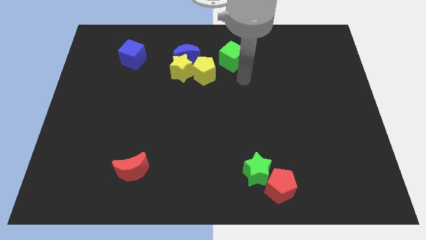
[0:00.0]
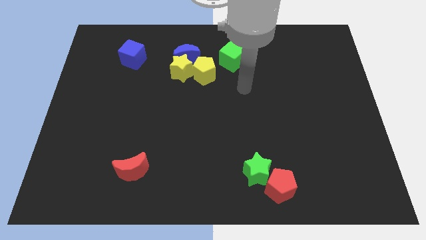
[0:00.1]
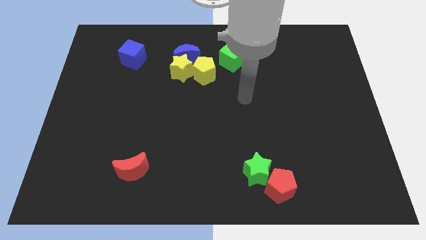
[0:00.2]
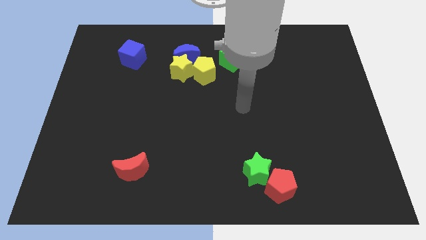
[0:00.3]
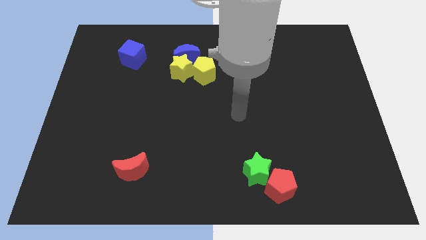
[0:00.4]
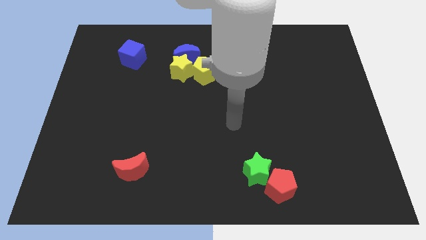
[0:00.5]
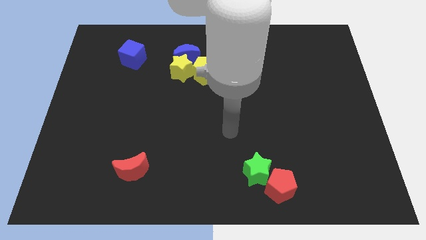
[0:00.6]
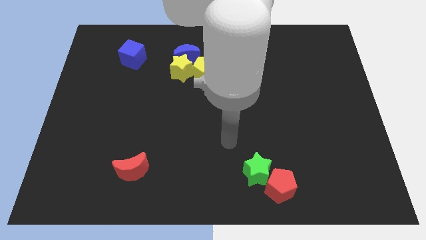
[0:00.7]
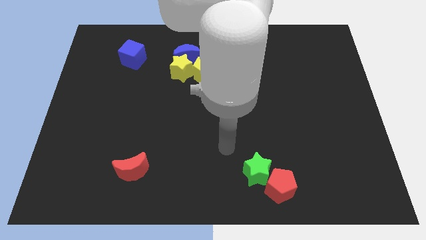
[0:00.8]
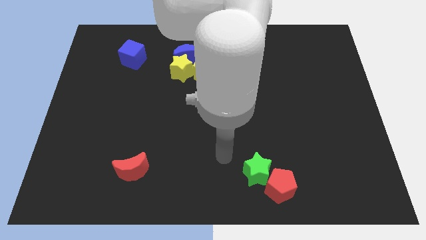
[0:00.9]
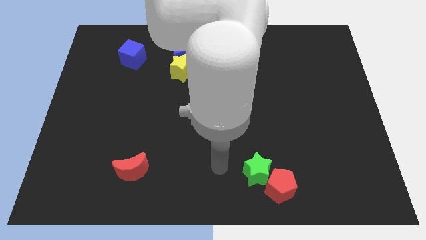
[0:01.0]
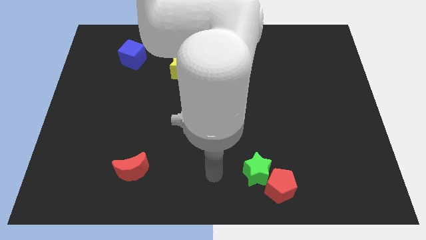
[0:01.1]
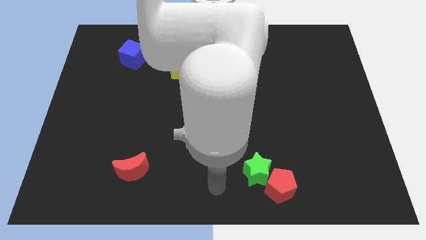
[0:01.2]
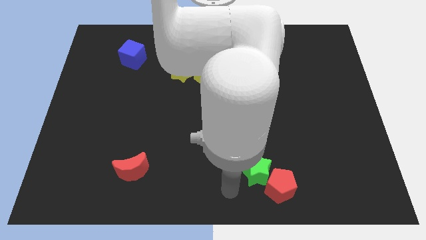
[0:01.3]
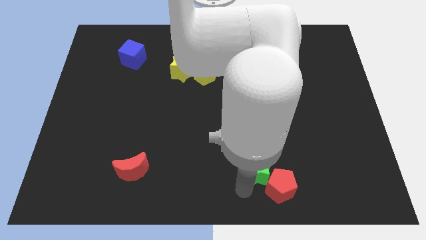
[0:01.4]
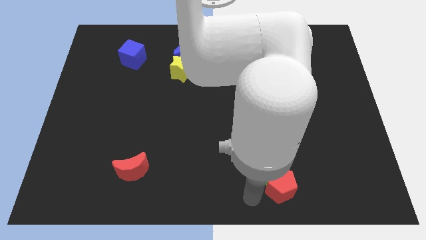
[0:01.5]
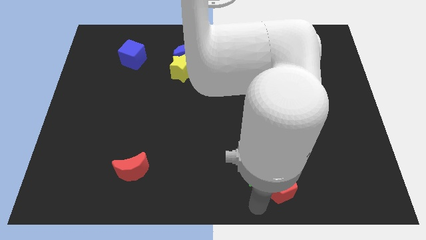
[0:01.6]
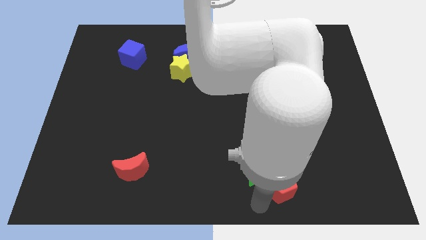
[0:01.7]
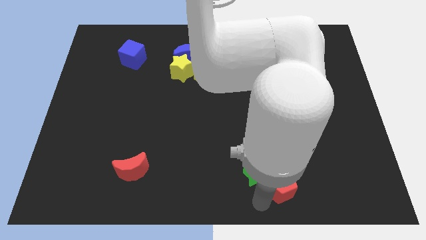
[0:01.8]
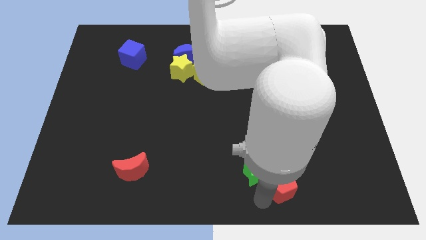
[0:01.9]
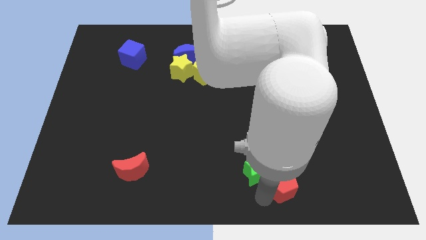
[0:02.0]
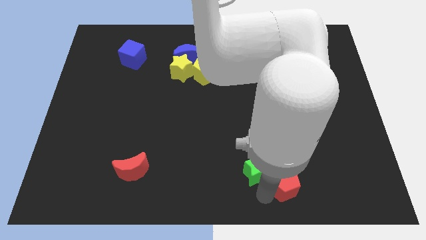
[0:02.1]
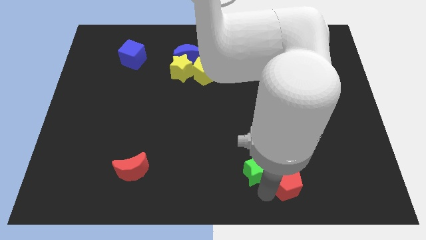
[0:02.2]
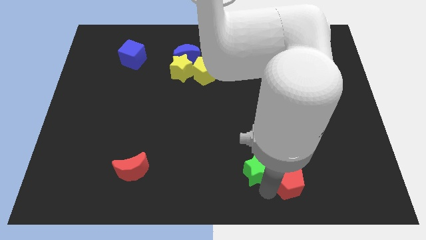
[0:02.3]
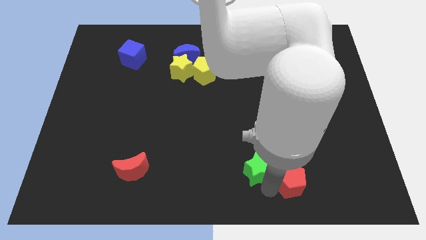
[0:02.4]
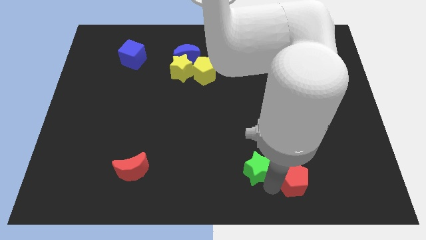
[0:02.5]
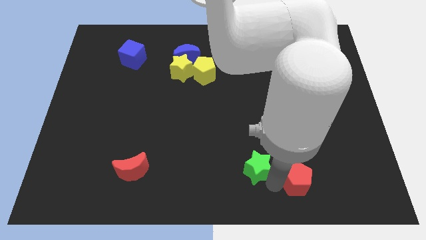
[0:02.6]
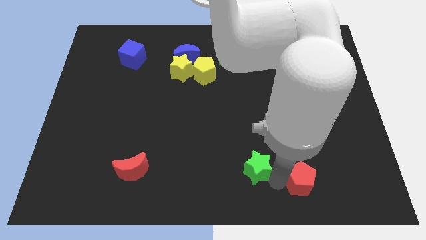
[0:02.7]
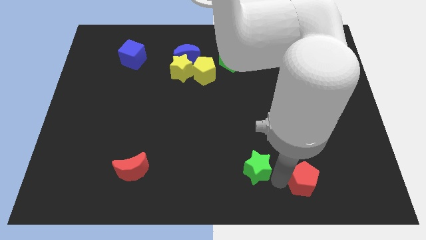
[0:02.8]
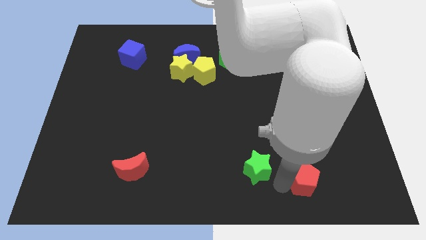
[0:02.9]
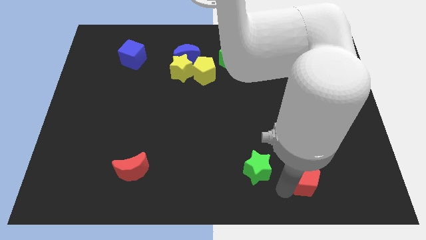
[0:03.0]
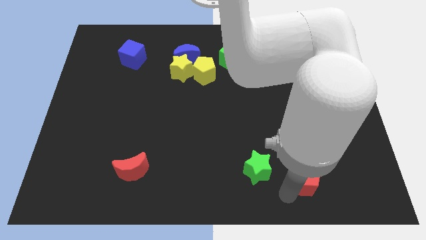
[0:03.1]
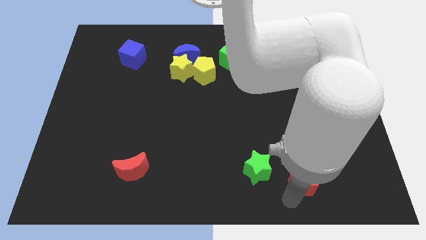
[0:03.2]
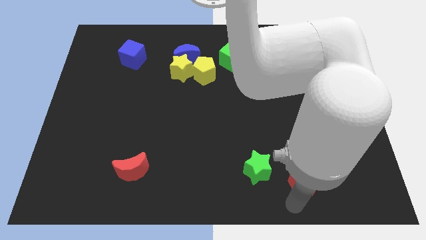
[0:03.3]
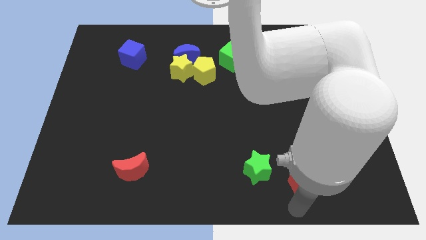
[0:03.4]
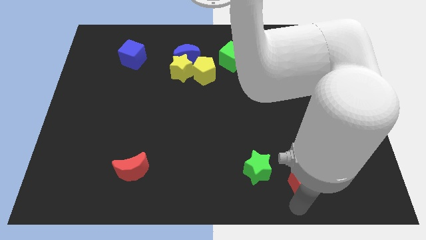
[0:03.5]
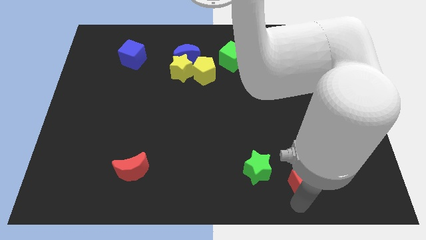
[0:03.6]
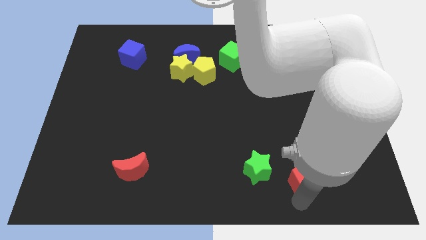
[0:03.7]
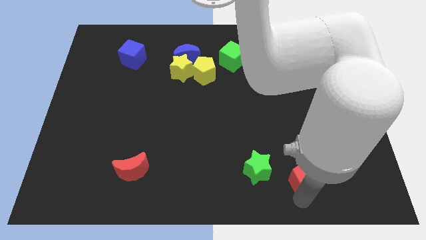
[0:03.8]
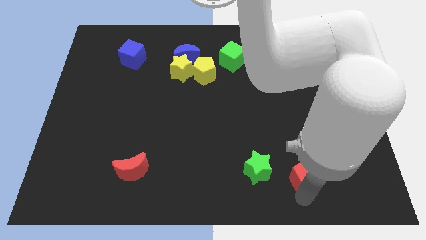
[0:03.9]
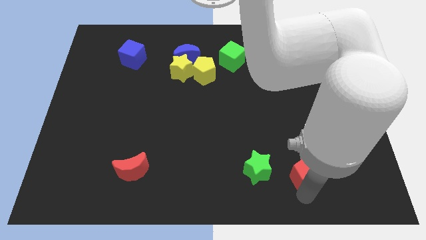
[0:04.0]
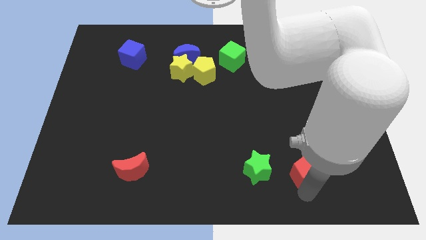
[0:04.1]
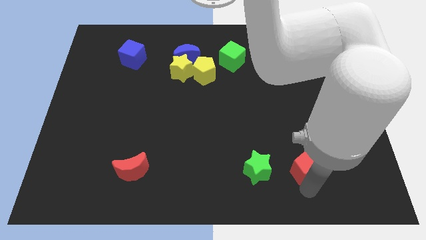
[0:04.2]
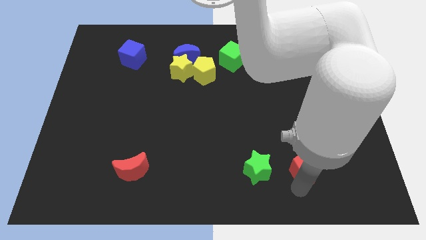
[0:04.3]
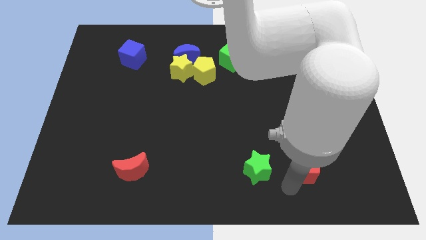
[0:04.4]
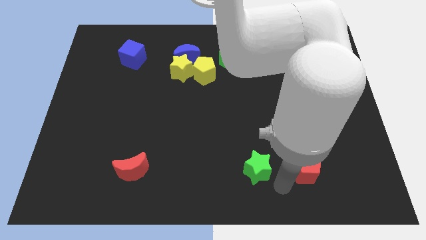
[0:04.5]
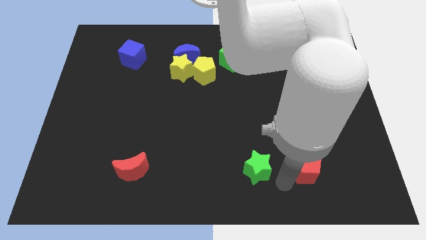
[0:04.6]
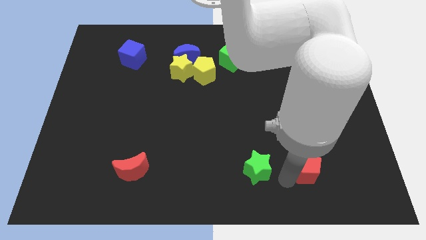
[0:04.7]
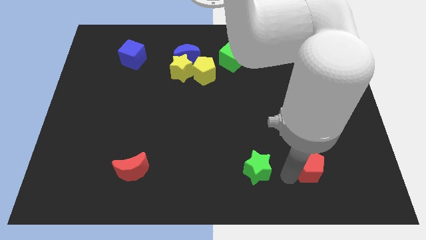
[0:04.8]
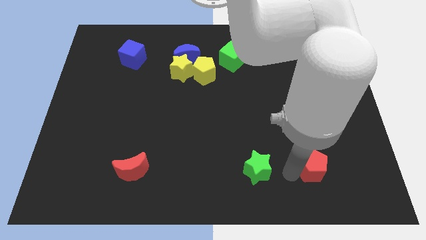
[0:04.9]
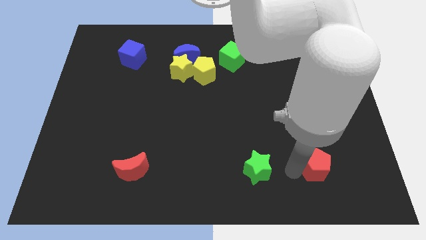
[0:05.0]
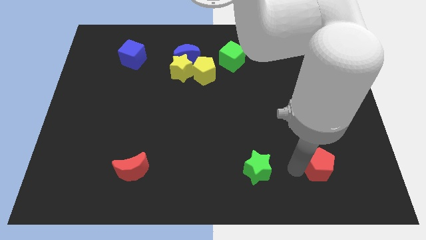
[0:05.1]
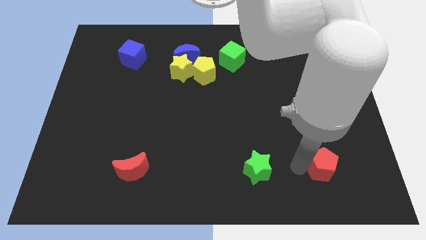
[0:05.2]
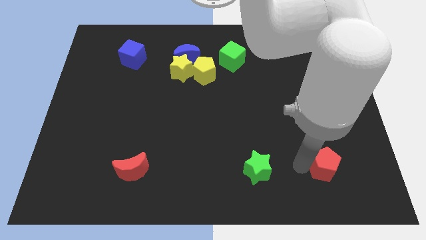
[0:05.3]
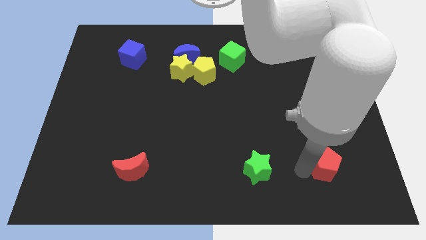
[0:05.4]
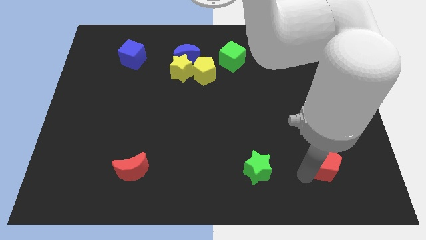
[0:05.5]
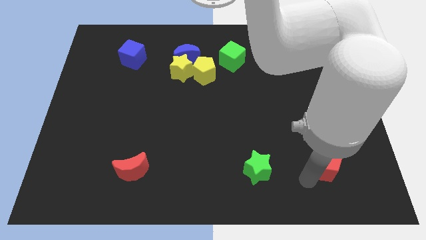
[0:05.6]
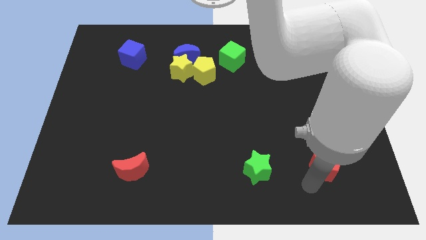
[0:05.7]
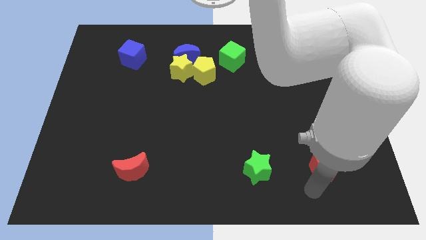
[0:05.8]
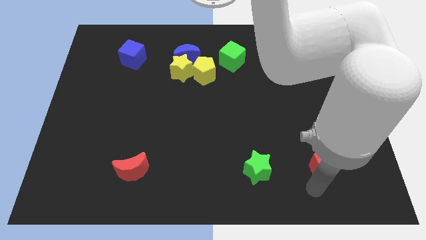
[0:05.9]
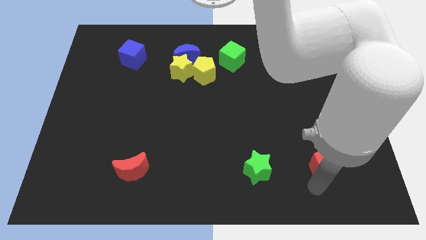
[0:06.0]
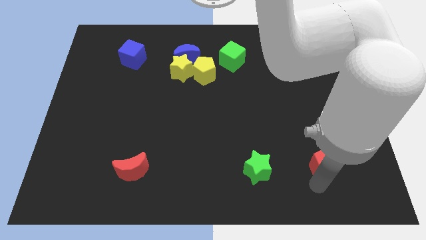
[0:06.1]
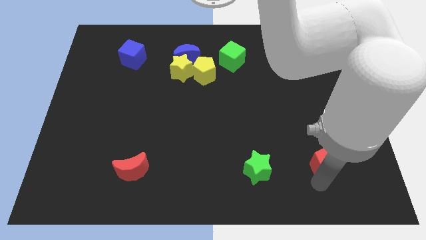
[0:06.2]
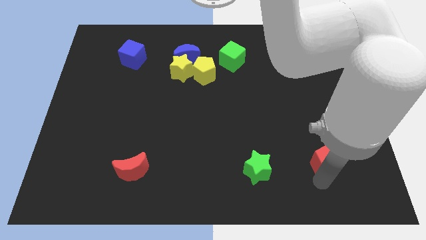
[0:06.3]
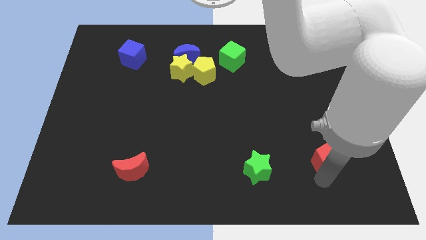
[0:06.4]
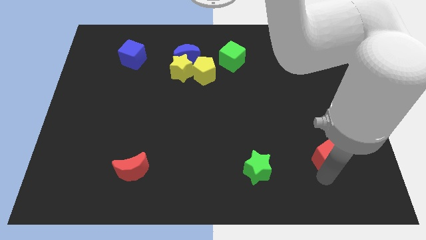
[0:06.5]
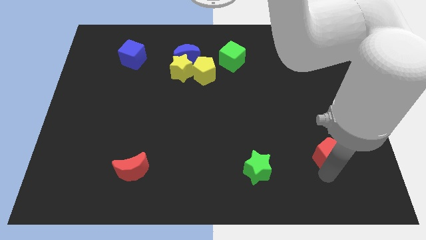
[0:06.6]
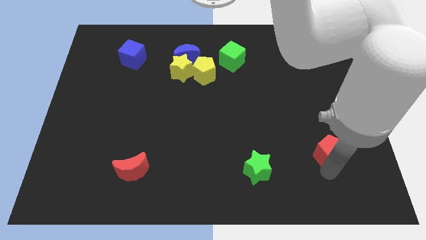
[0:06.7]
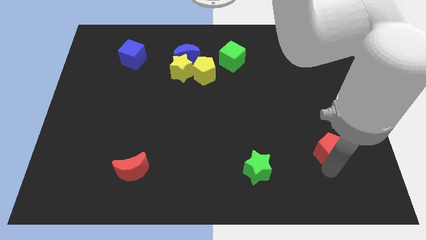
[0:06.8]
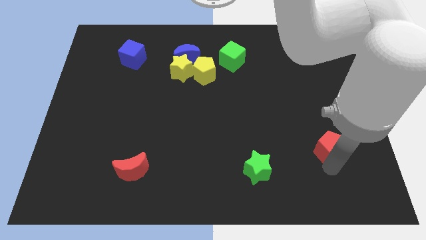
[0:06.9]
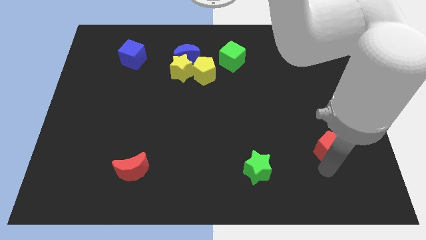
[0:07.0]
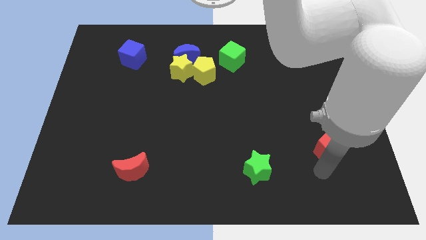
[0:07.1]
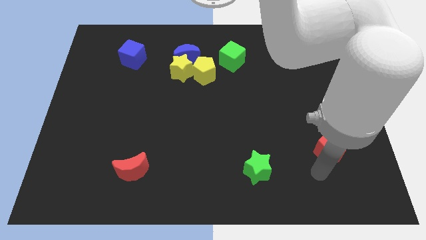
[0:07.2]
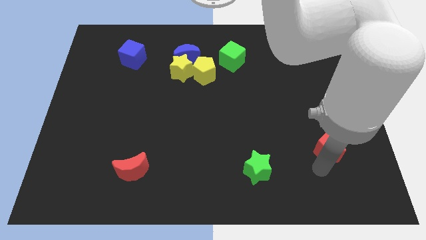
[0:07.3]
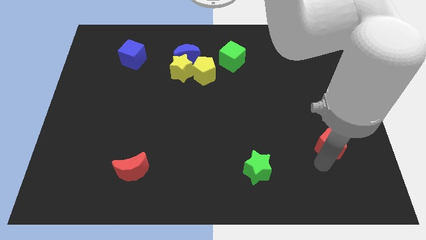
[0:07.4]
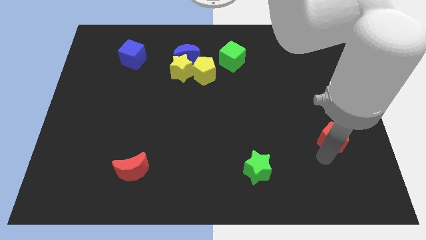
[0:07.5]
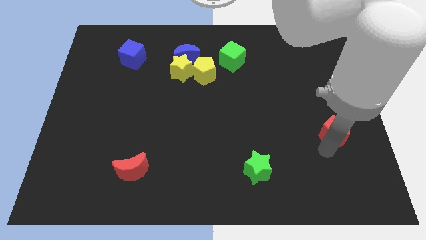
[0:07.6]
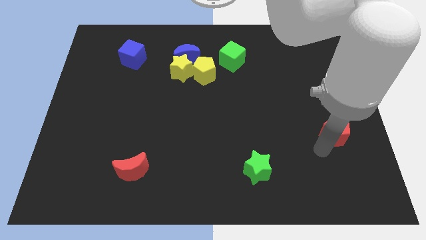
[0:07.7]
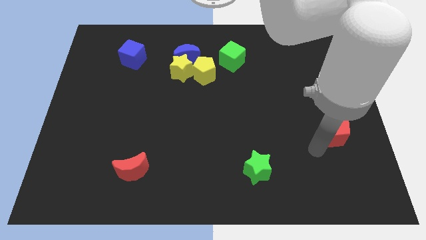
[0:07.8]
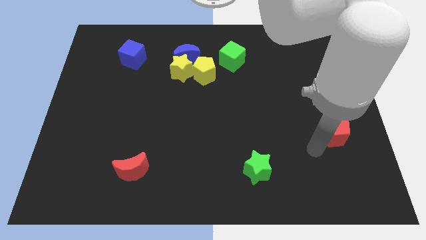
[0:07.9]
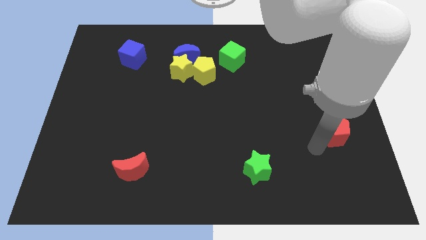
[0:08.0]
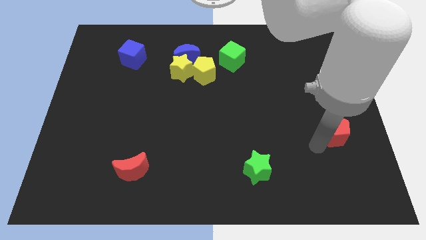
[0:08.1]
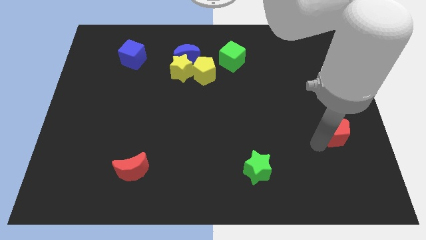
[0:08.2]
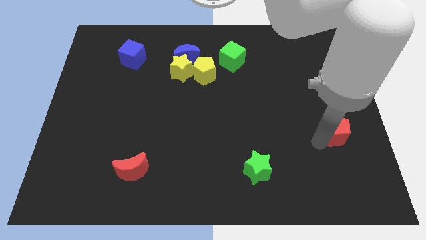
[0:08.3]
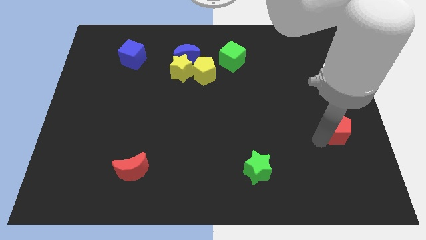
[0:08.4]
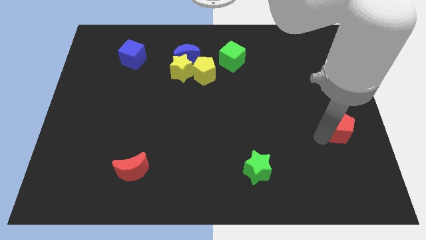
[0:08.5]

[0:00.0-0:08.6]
slide the red pentagon to the center right
